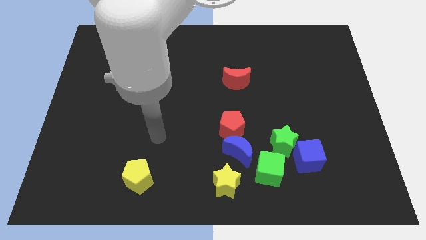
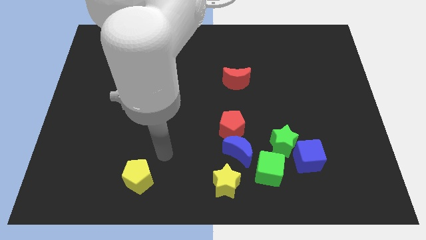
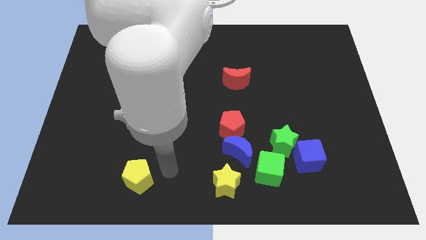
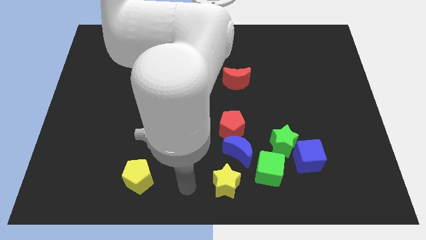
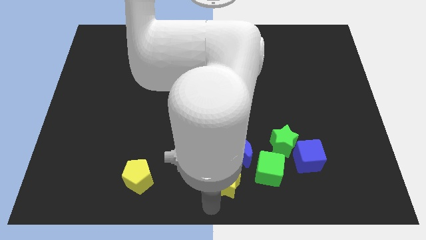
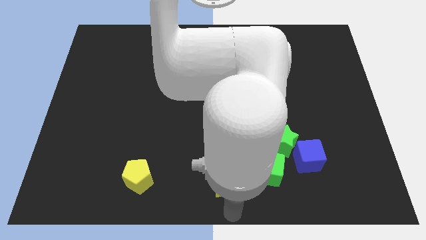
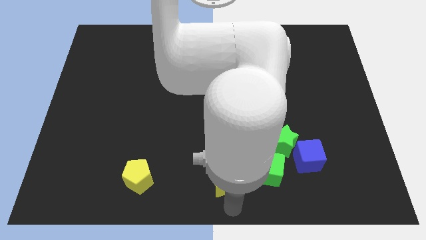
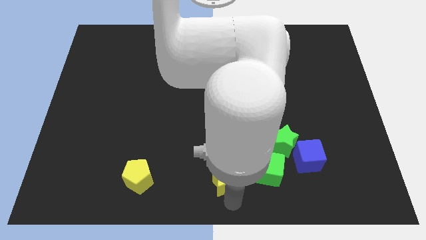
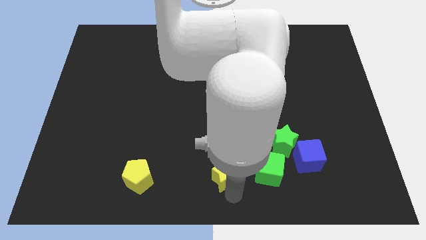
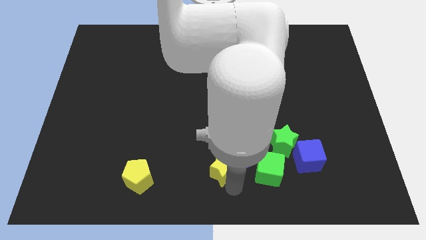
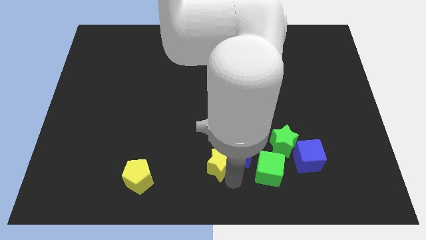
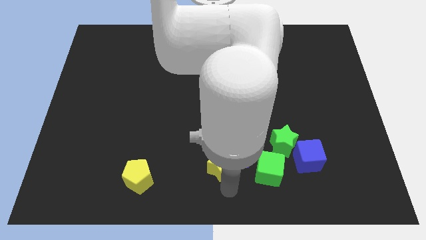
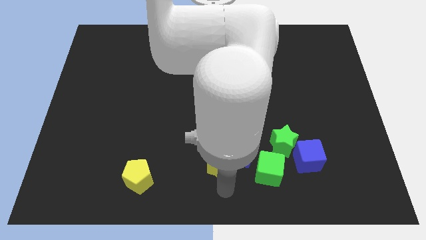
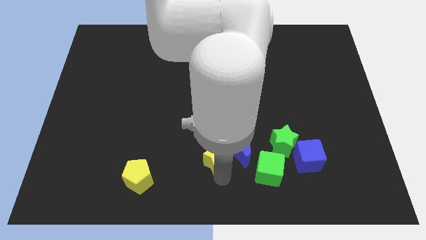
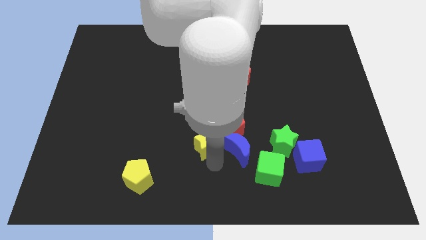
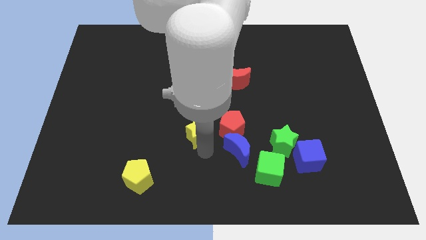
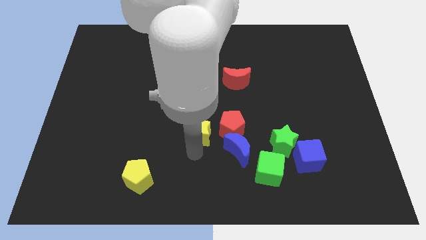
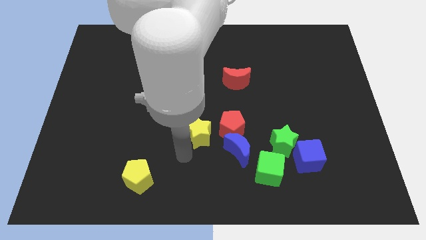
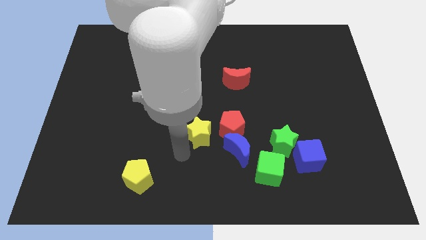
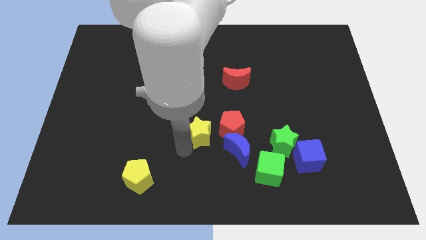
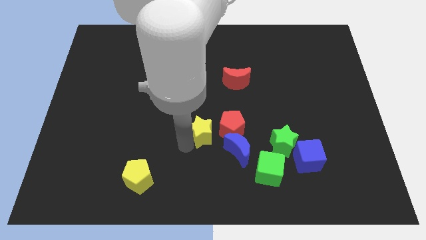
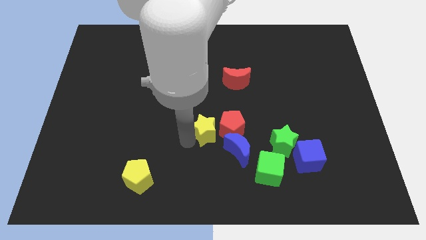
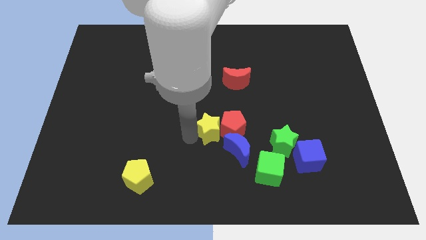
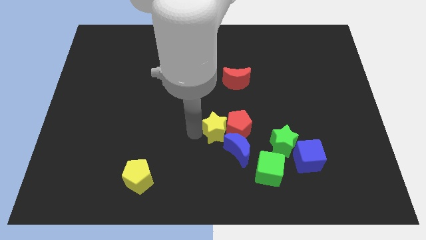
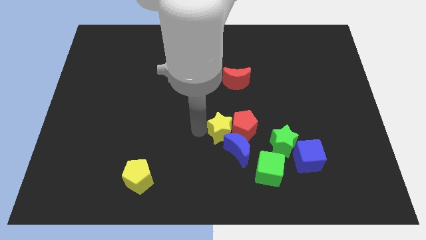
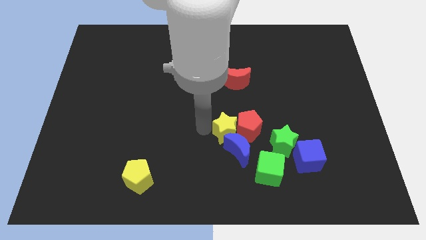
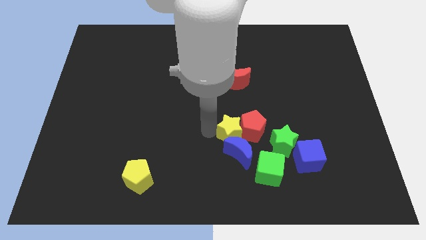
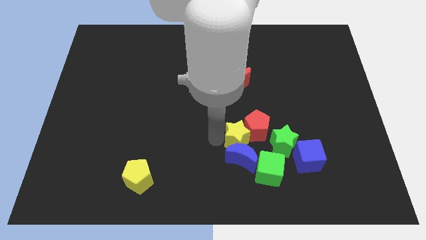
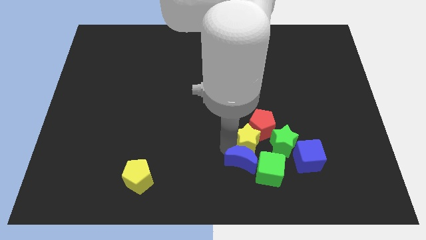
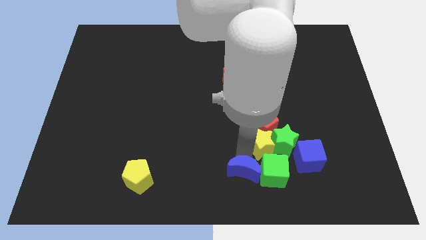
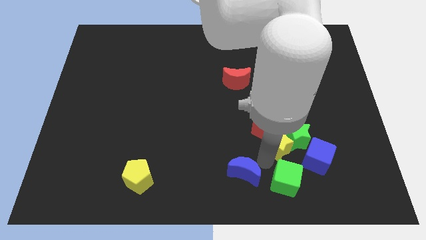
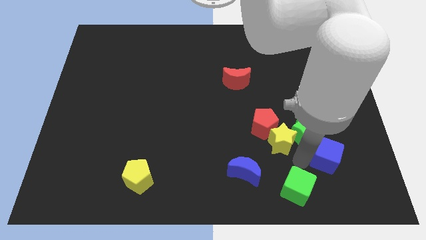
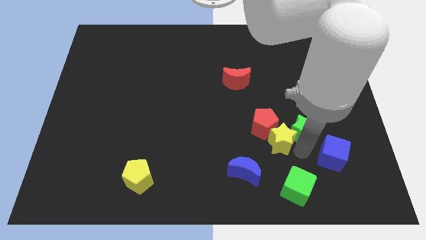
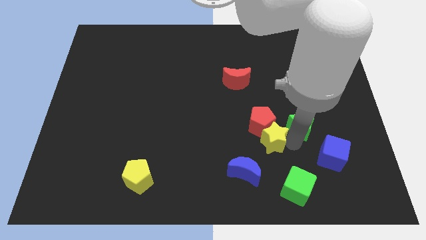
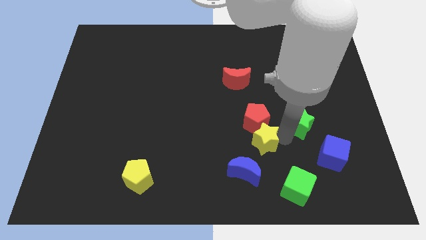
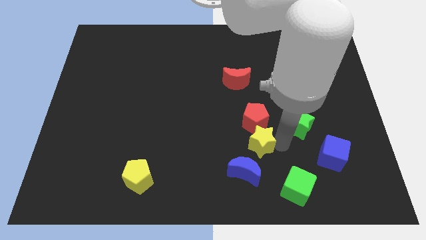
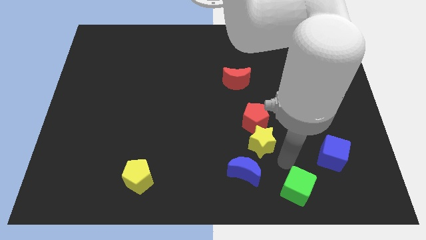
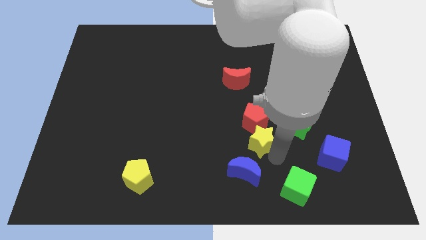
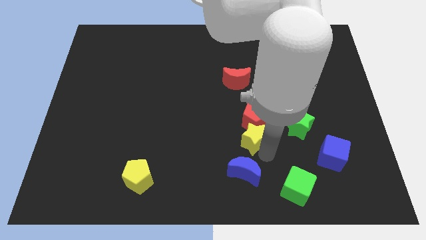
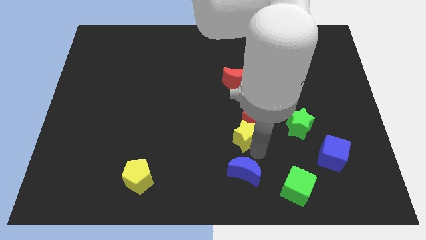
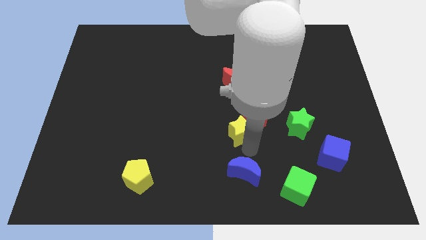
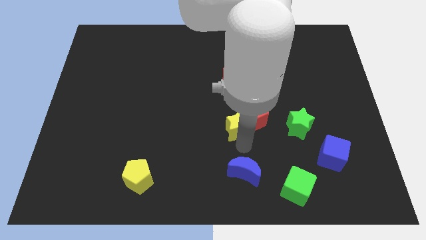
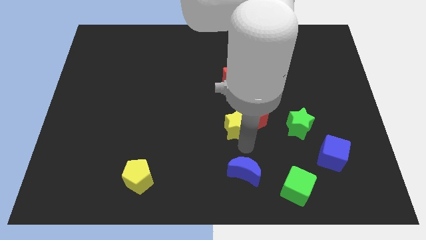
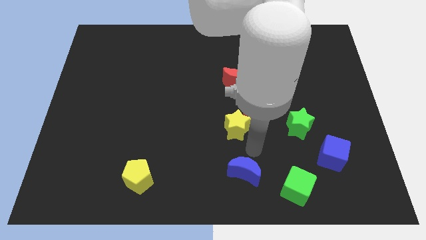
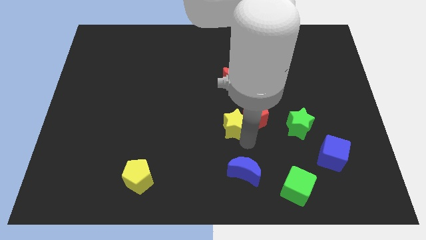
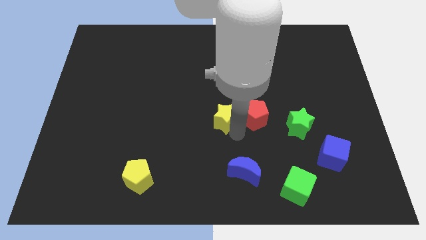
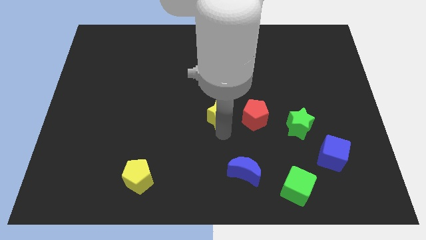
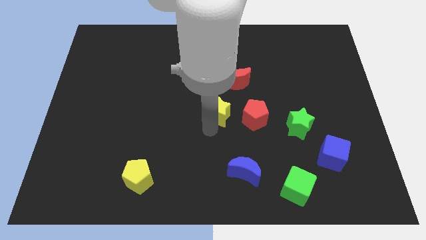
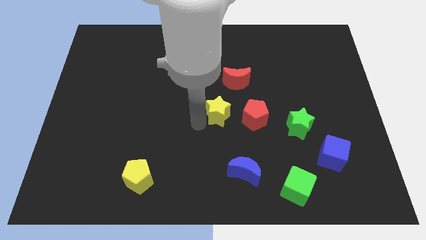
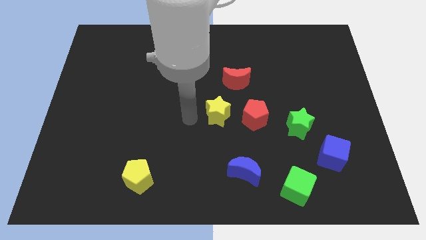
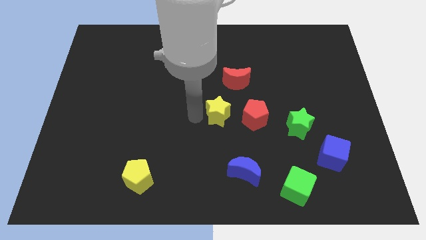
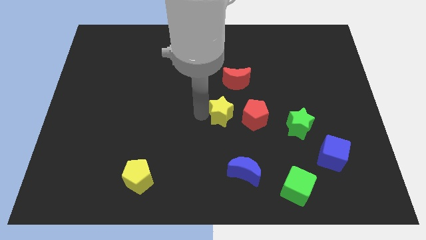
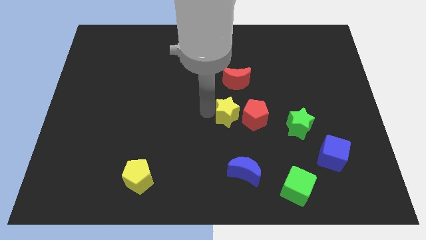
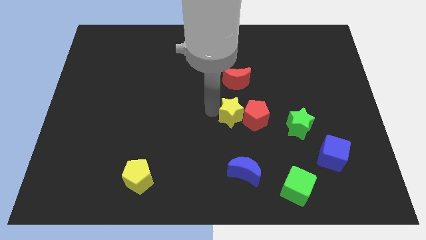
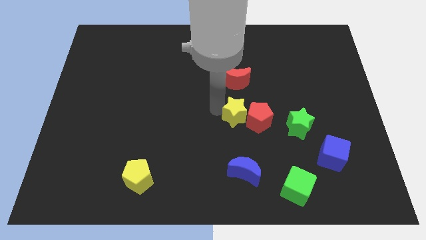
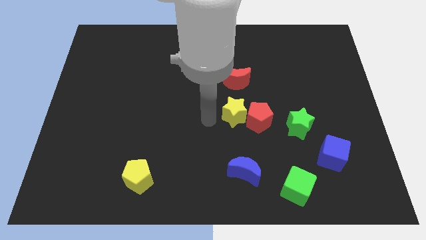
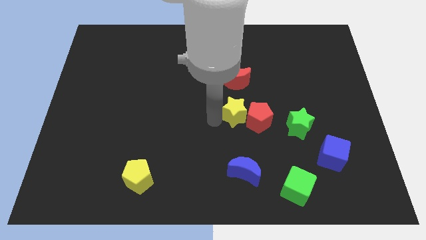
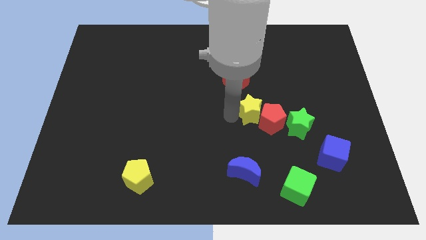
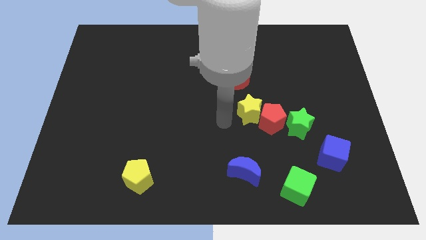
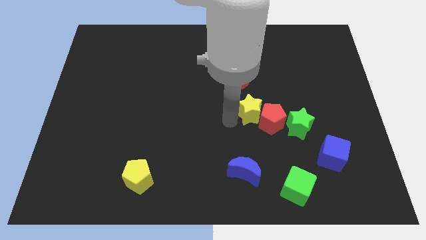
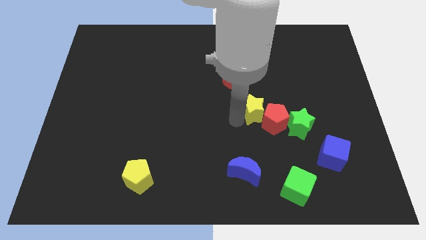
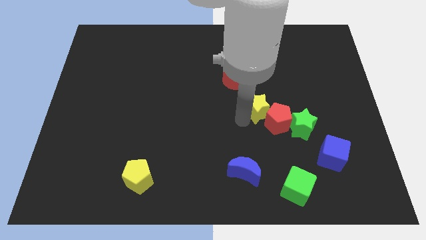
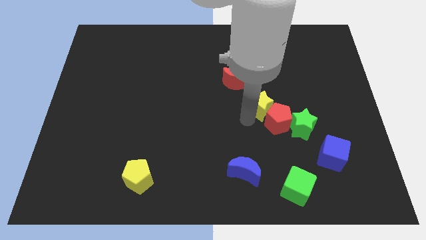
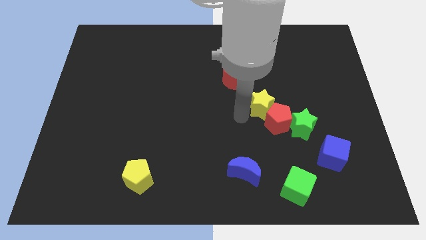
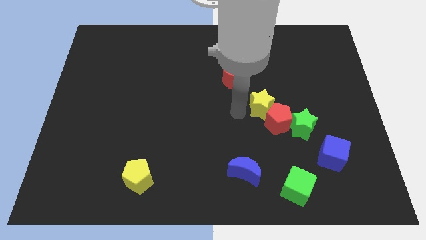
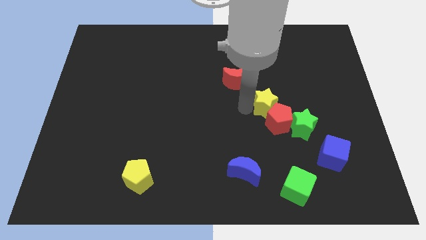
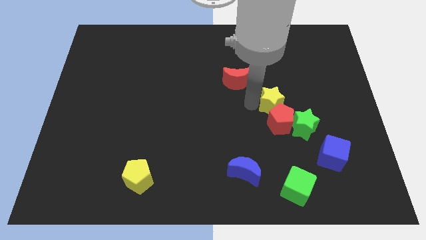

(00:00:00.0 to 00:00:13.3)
push the yellow star upwards and right diagonally

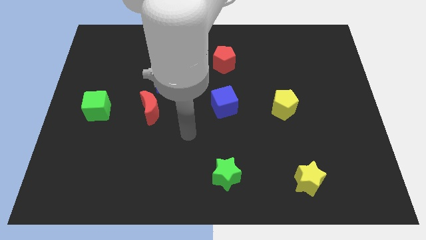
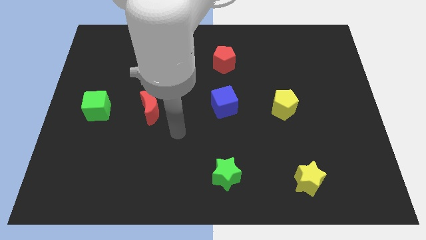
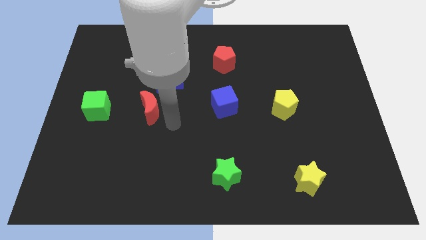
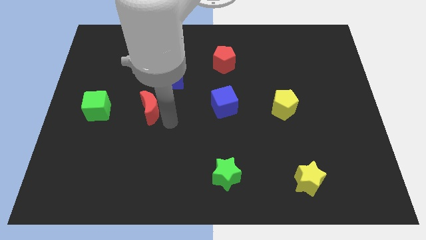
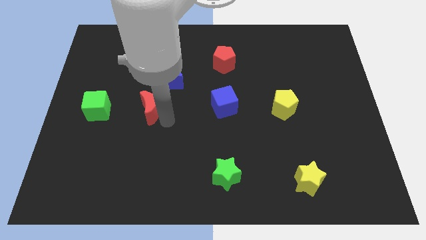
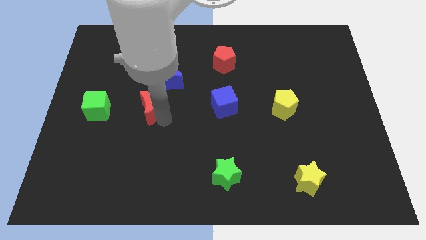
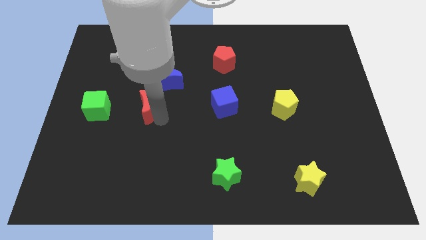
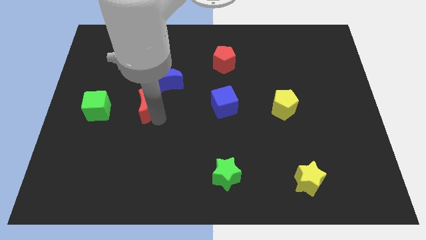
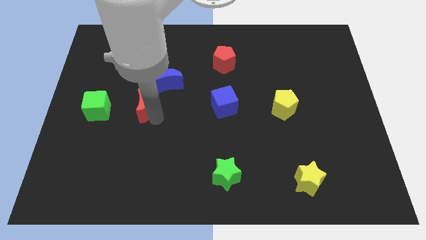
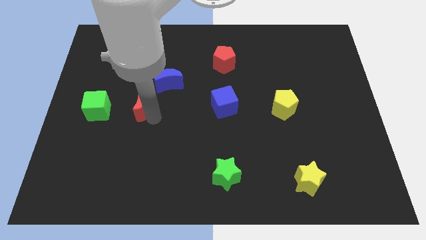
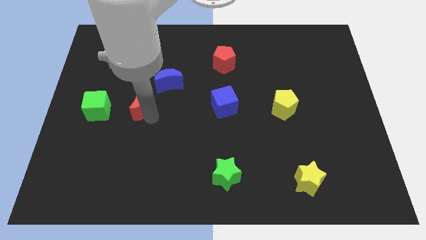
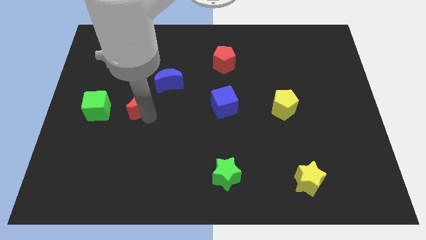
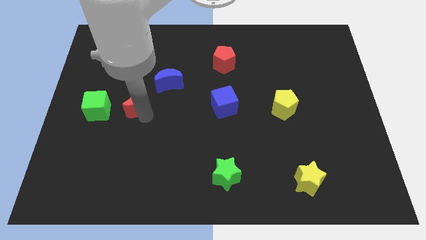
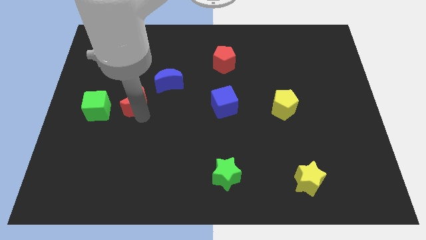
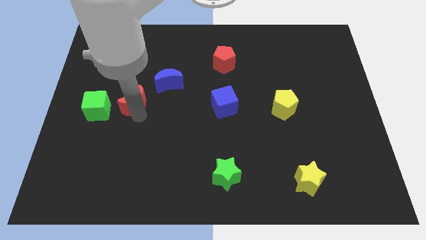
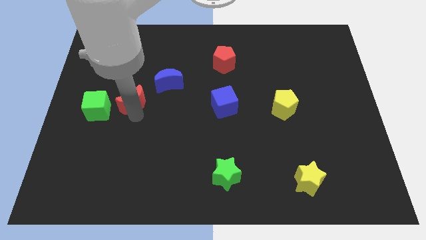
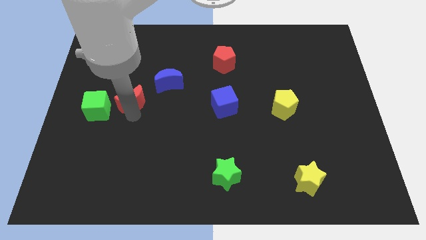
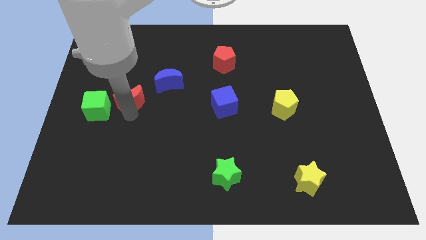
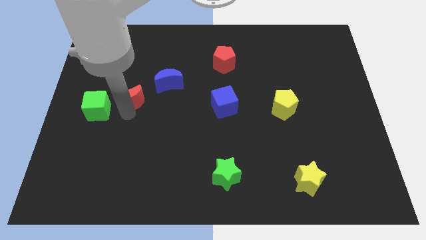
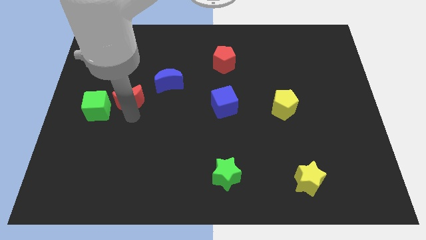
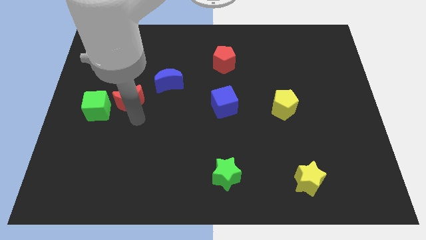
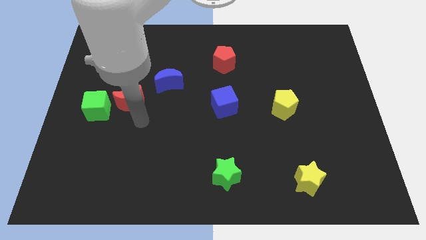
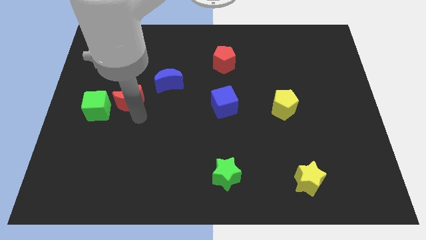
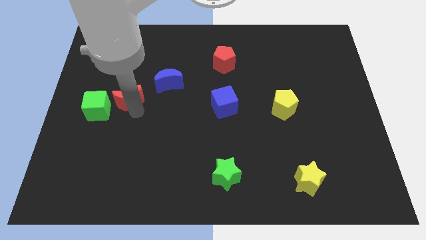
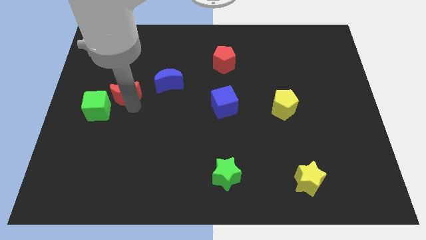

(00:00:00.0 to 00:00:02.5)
slightly slide the red moon up and left diagonally
